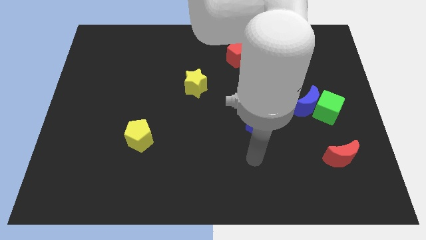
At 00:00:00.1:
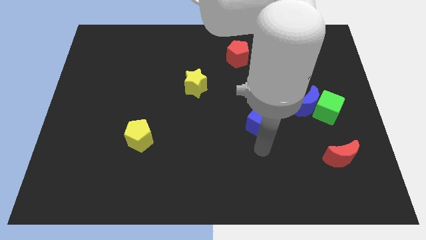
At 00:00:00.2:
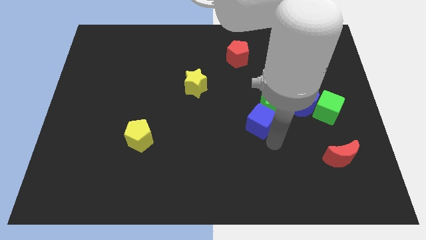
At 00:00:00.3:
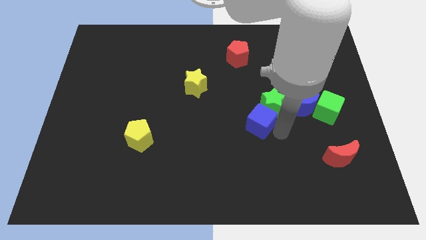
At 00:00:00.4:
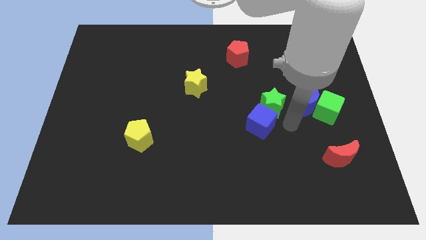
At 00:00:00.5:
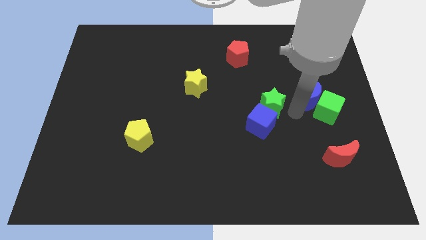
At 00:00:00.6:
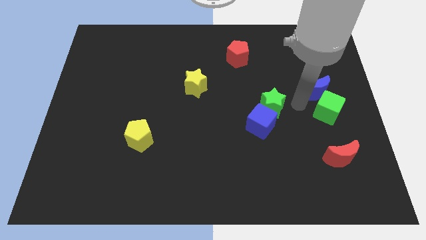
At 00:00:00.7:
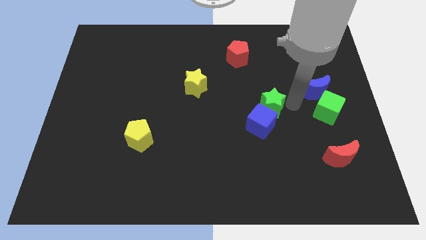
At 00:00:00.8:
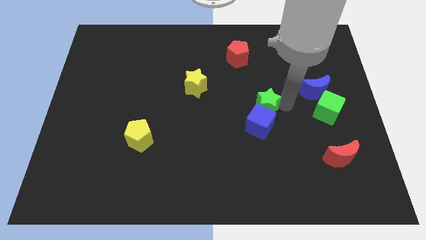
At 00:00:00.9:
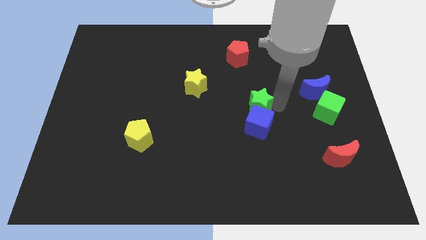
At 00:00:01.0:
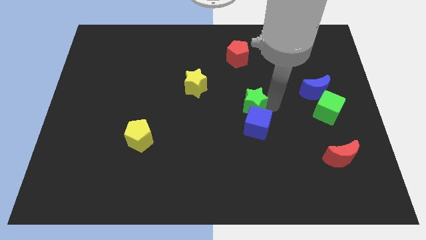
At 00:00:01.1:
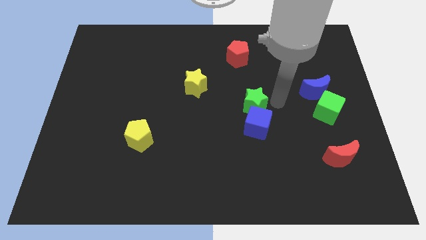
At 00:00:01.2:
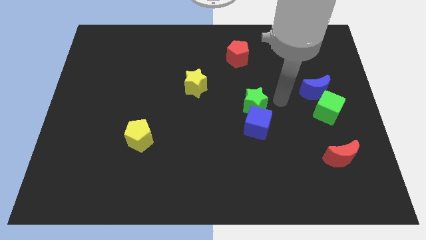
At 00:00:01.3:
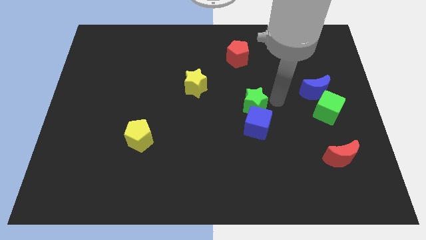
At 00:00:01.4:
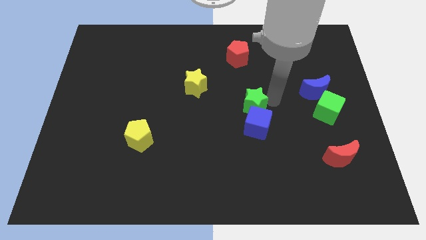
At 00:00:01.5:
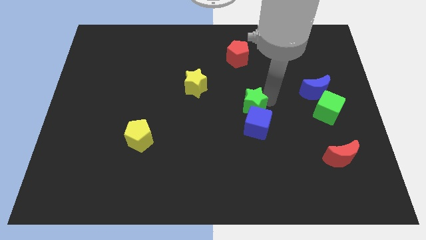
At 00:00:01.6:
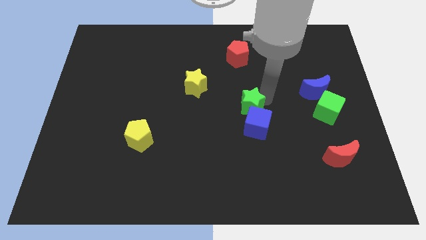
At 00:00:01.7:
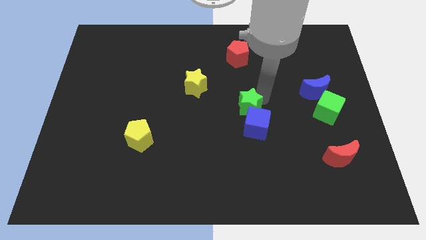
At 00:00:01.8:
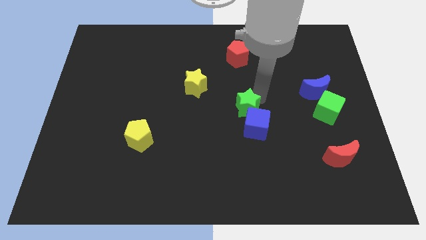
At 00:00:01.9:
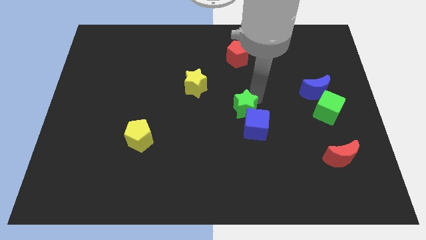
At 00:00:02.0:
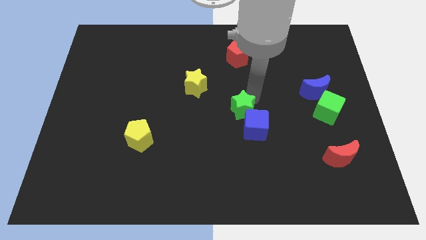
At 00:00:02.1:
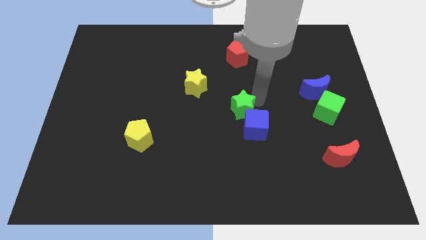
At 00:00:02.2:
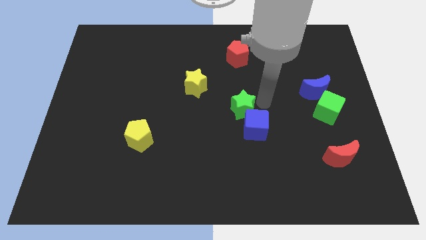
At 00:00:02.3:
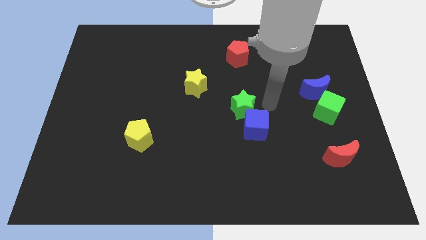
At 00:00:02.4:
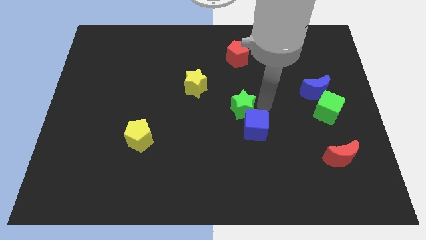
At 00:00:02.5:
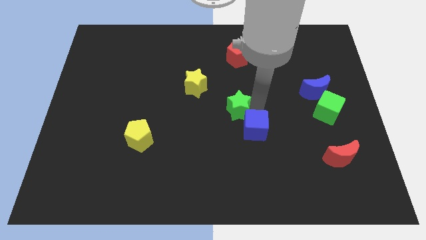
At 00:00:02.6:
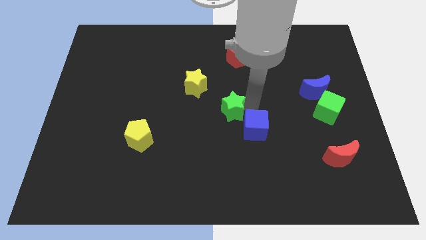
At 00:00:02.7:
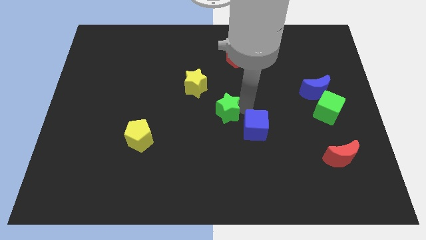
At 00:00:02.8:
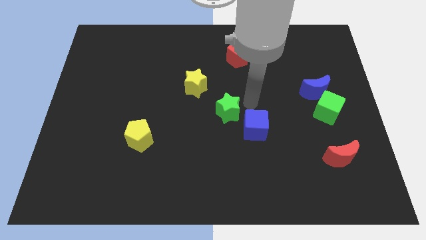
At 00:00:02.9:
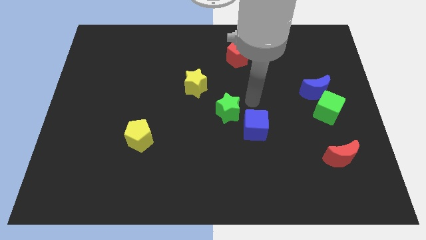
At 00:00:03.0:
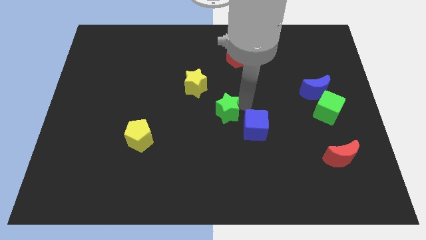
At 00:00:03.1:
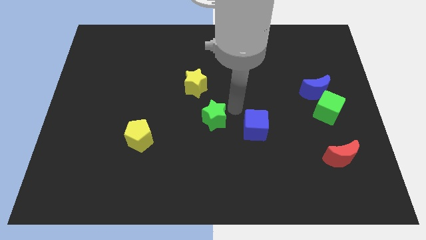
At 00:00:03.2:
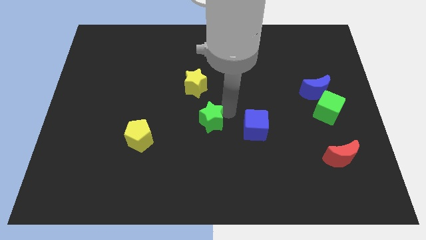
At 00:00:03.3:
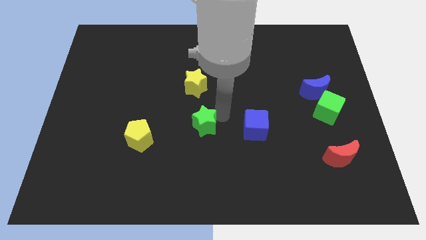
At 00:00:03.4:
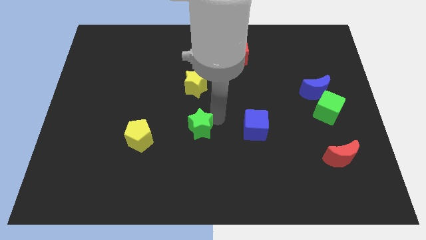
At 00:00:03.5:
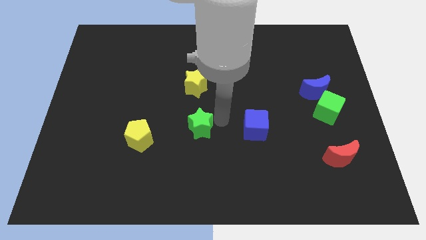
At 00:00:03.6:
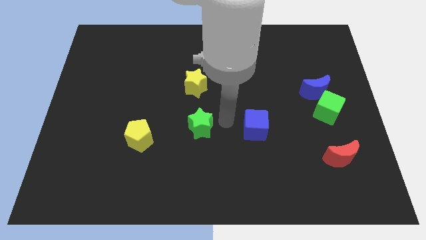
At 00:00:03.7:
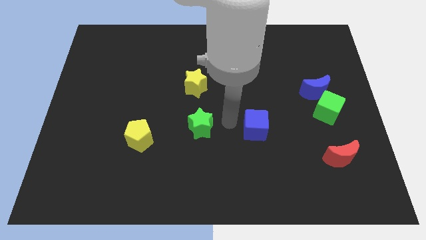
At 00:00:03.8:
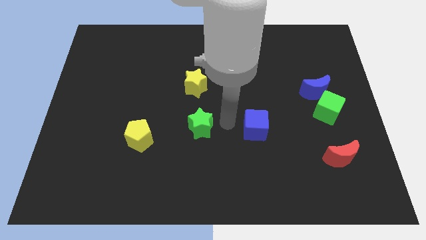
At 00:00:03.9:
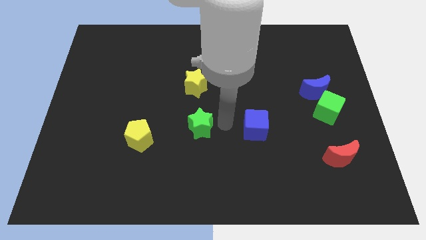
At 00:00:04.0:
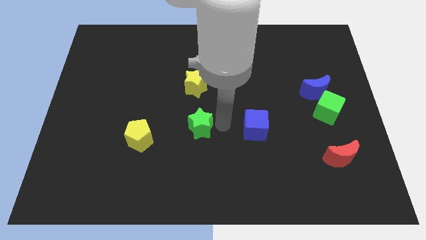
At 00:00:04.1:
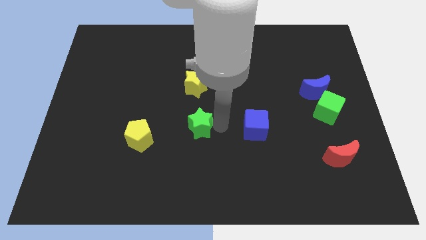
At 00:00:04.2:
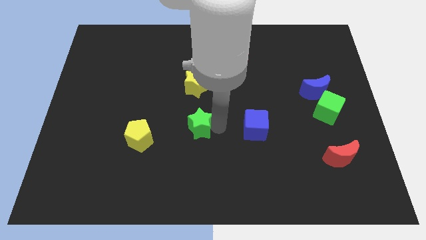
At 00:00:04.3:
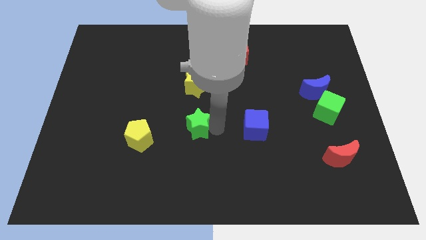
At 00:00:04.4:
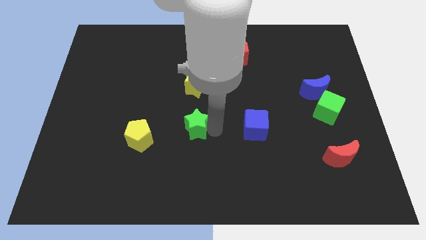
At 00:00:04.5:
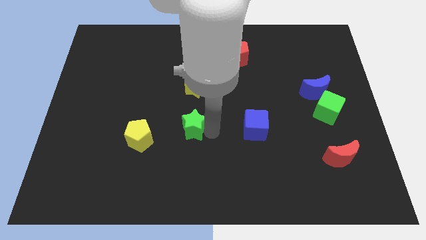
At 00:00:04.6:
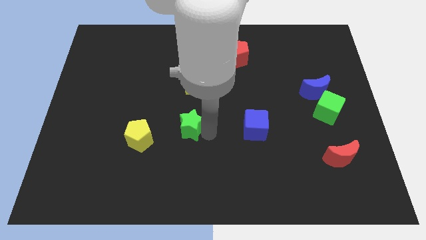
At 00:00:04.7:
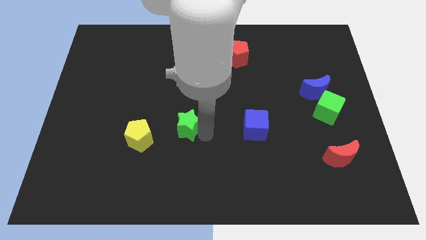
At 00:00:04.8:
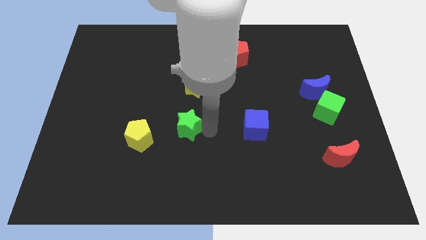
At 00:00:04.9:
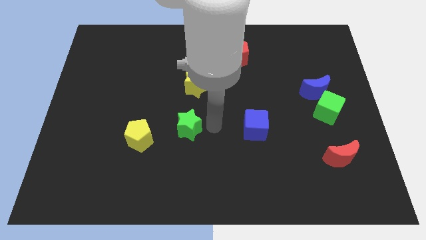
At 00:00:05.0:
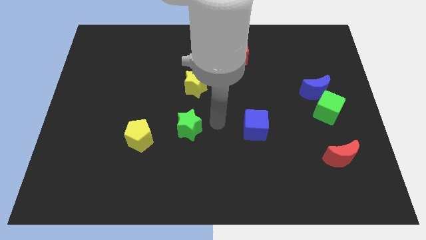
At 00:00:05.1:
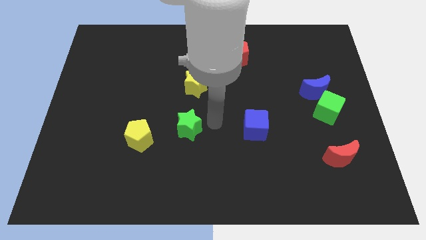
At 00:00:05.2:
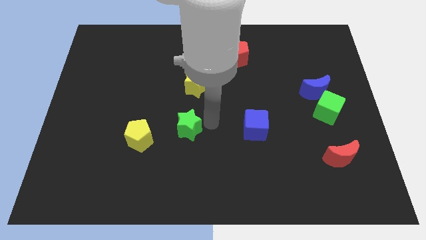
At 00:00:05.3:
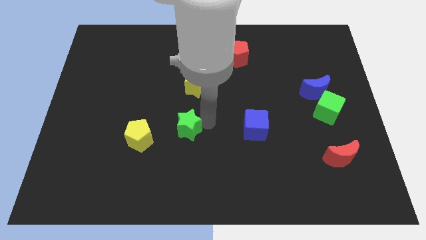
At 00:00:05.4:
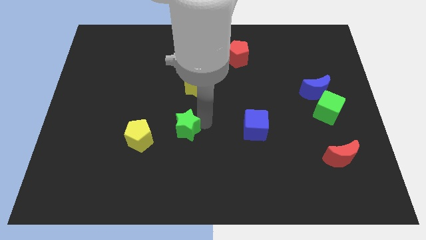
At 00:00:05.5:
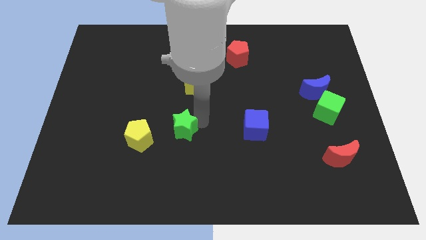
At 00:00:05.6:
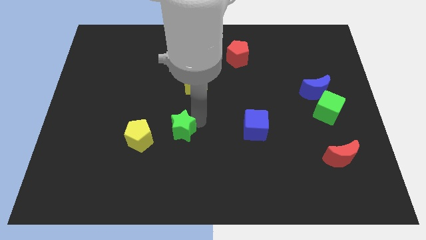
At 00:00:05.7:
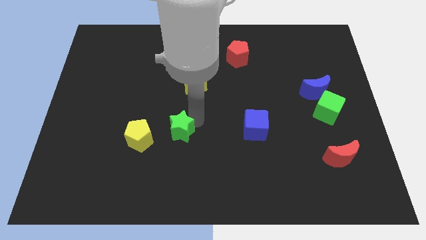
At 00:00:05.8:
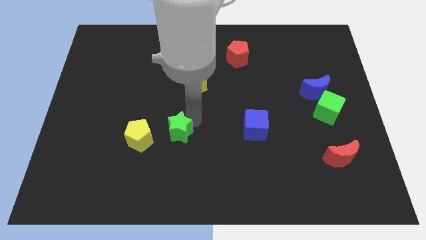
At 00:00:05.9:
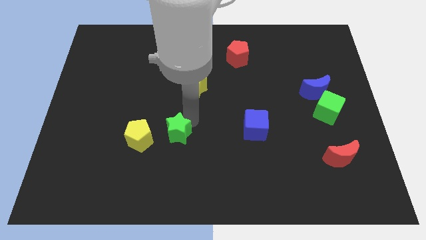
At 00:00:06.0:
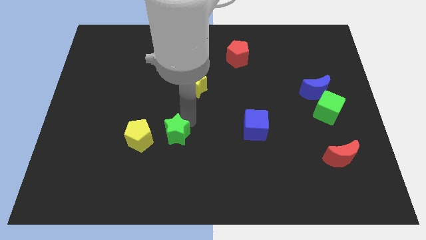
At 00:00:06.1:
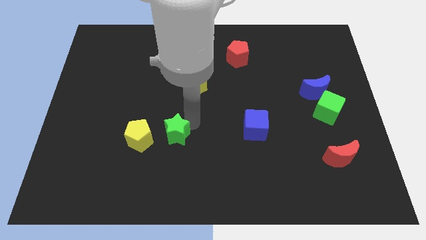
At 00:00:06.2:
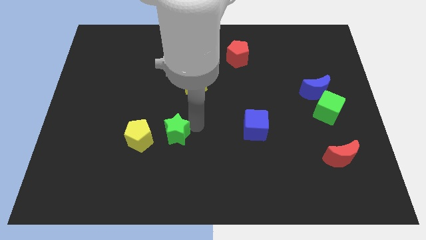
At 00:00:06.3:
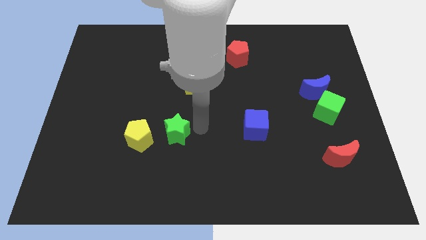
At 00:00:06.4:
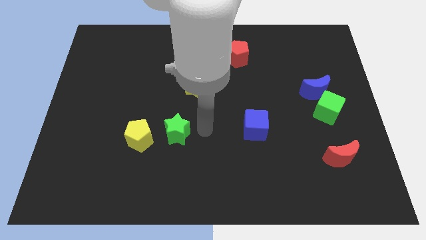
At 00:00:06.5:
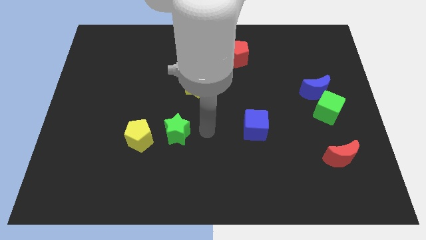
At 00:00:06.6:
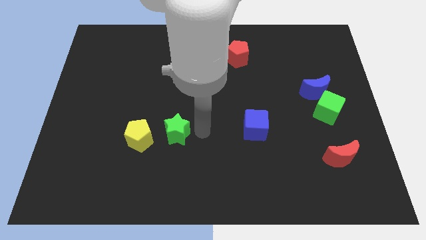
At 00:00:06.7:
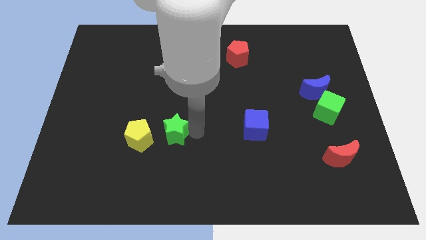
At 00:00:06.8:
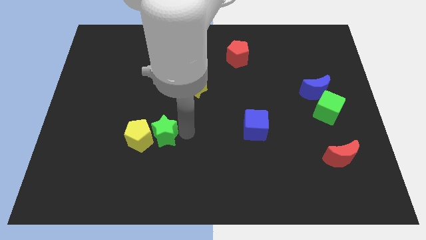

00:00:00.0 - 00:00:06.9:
put the green star close to the yellow pentagon
